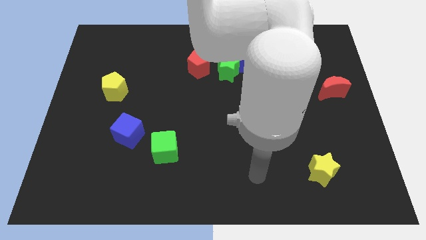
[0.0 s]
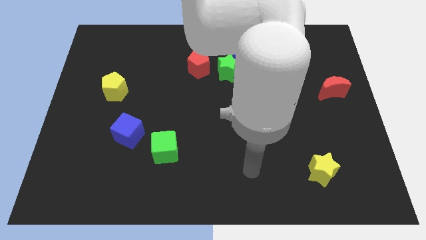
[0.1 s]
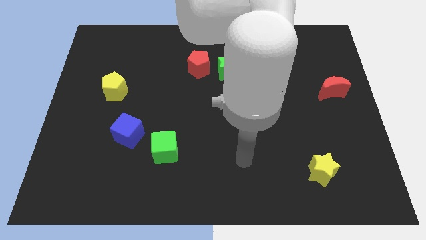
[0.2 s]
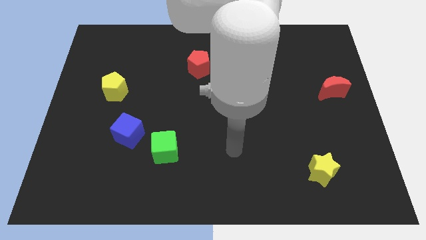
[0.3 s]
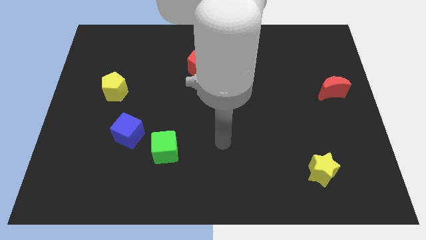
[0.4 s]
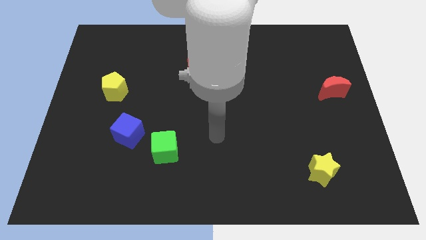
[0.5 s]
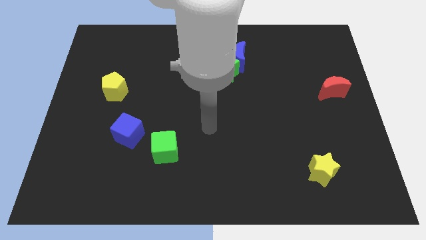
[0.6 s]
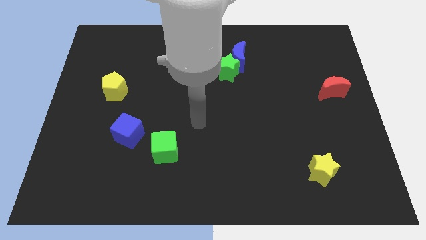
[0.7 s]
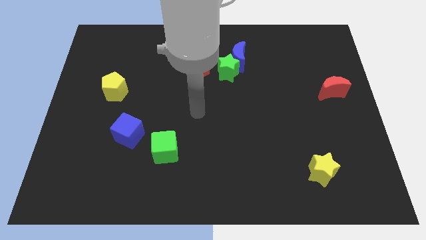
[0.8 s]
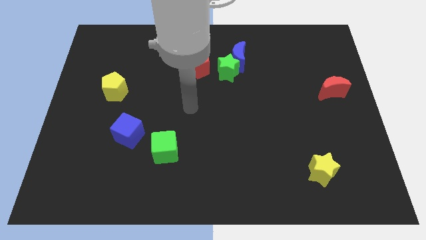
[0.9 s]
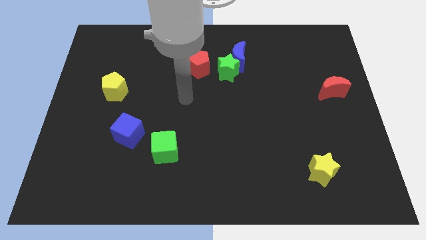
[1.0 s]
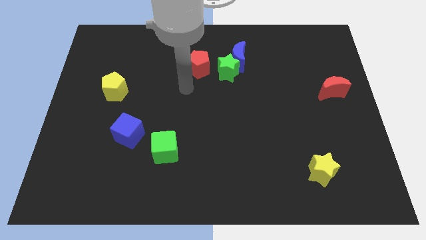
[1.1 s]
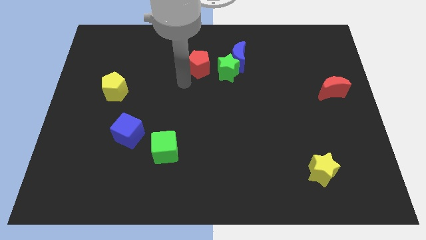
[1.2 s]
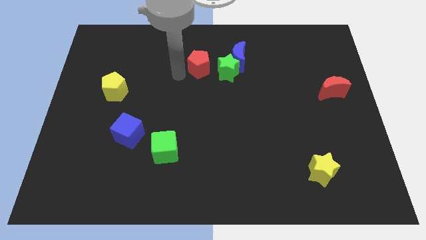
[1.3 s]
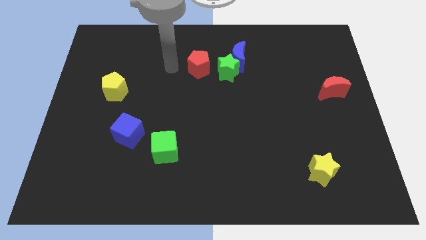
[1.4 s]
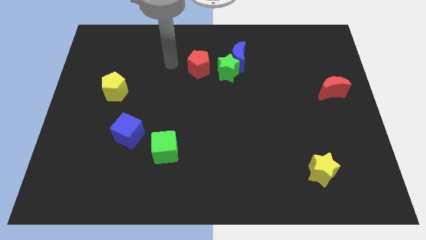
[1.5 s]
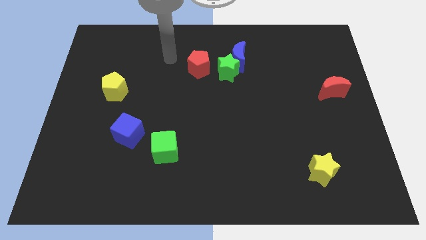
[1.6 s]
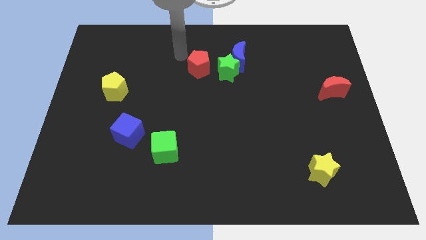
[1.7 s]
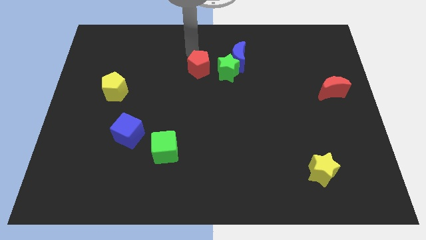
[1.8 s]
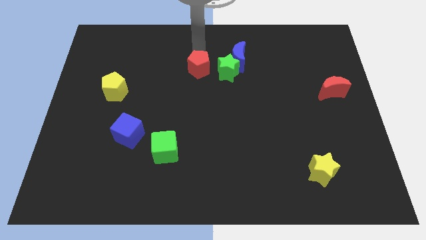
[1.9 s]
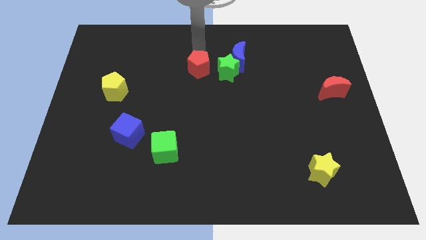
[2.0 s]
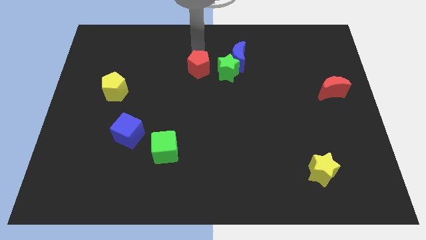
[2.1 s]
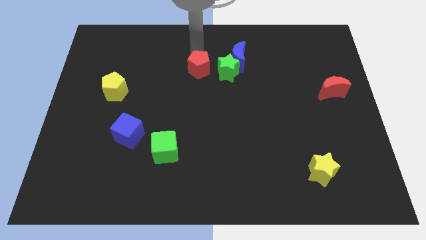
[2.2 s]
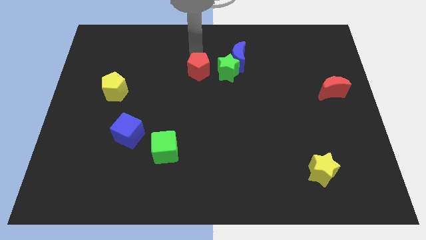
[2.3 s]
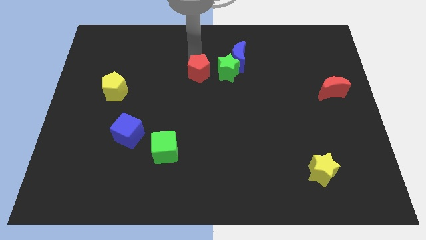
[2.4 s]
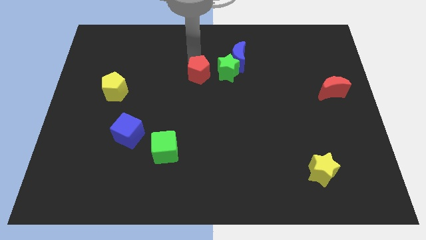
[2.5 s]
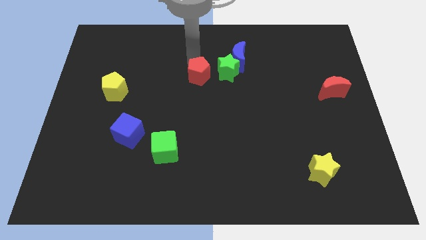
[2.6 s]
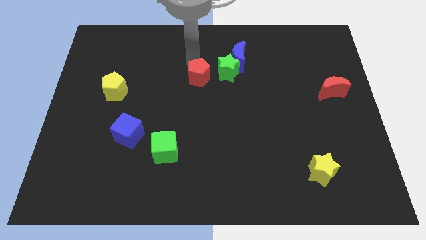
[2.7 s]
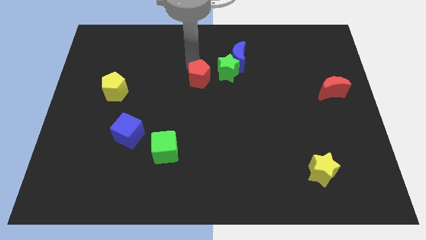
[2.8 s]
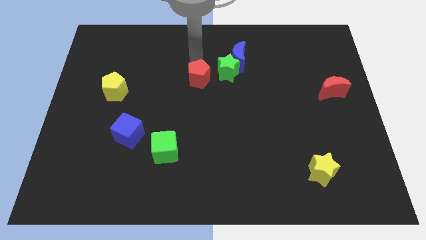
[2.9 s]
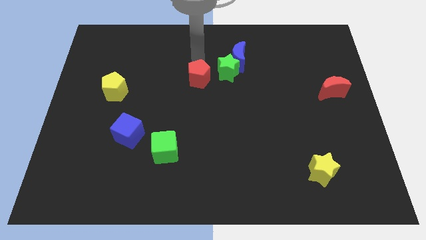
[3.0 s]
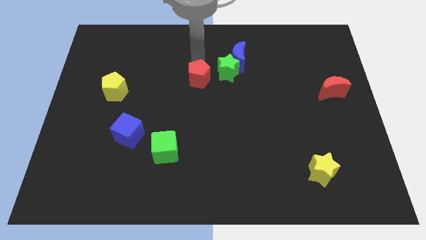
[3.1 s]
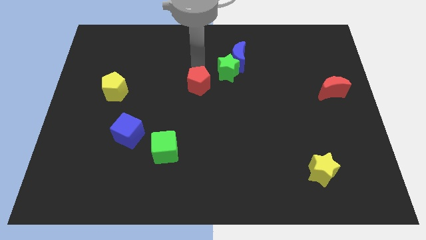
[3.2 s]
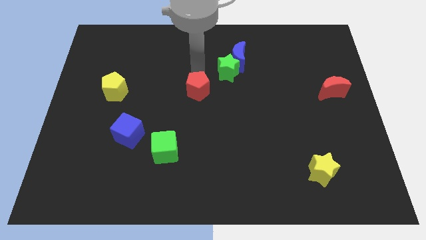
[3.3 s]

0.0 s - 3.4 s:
move the red pentagon a little bit down

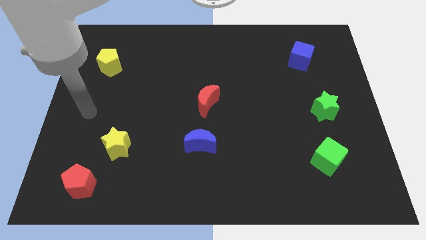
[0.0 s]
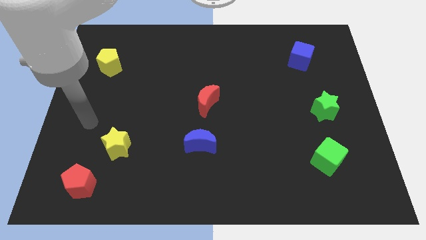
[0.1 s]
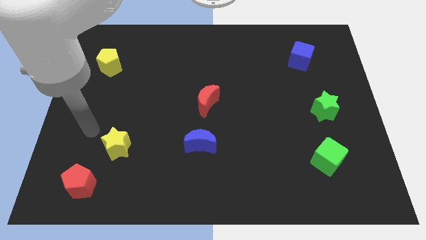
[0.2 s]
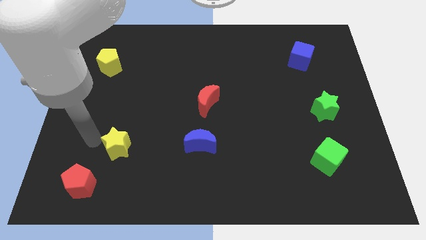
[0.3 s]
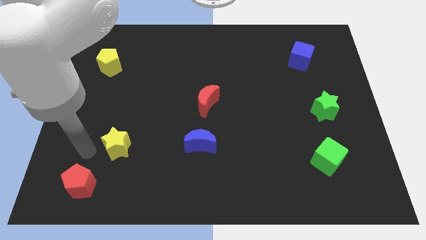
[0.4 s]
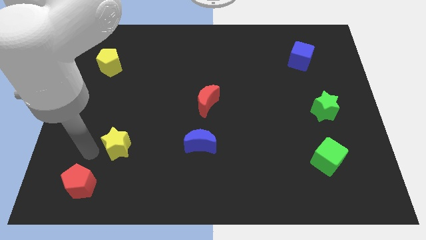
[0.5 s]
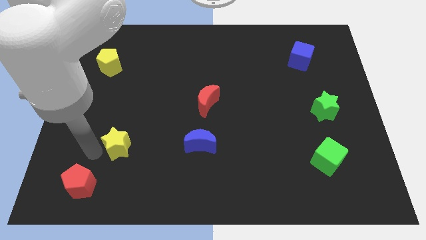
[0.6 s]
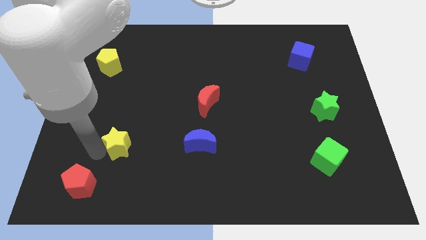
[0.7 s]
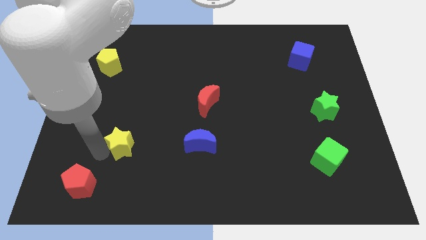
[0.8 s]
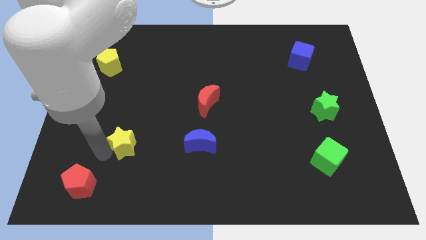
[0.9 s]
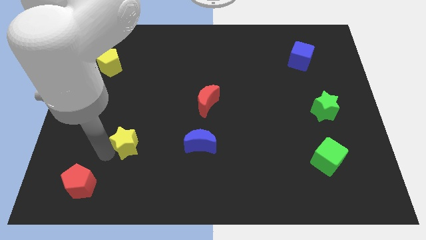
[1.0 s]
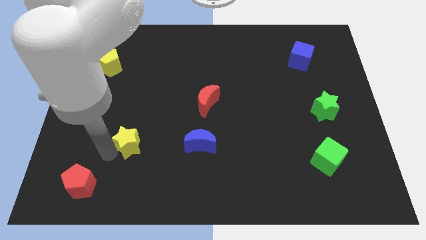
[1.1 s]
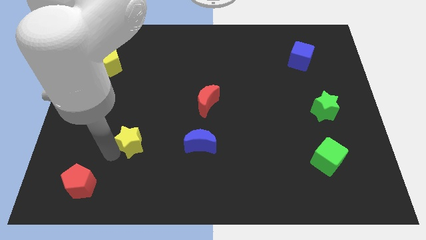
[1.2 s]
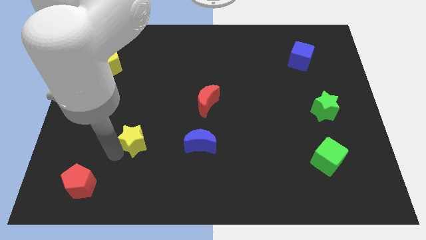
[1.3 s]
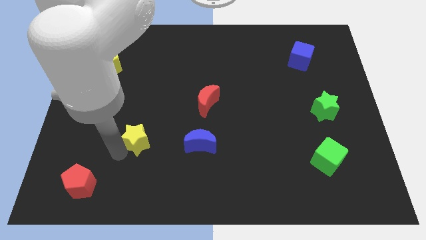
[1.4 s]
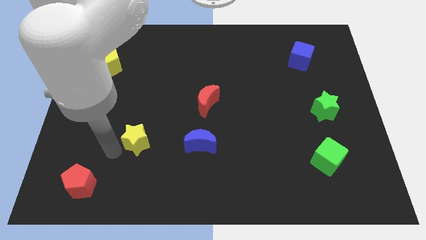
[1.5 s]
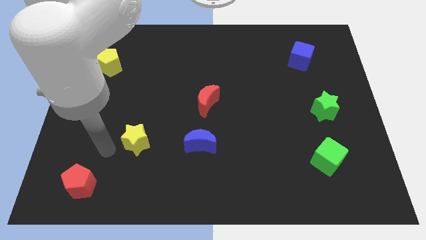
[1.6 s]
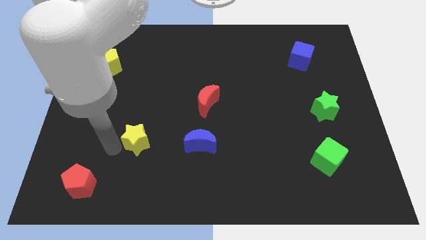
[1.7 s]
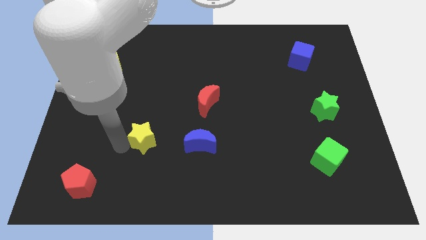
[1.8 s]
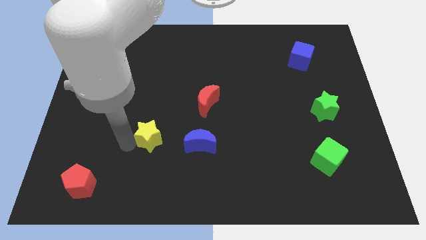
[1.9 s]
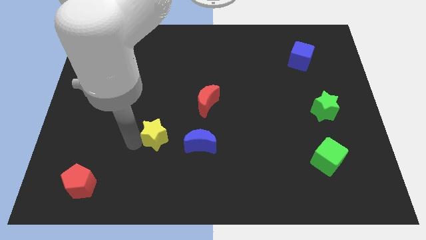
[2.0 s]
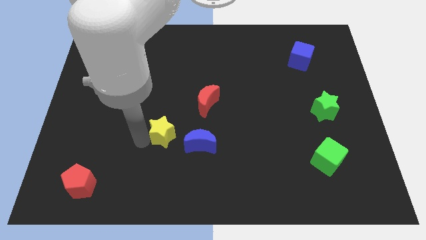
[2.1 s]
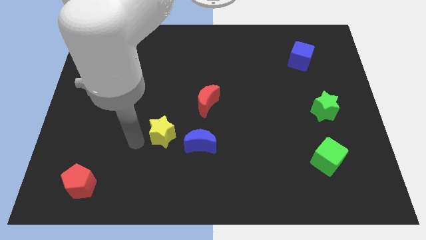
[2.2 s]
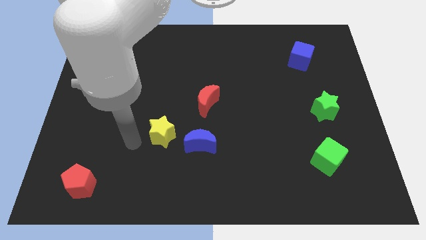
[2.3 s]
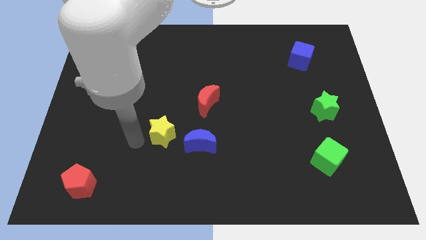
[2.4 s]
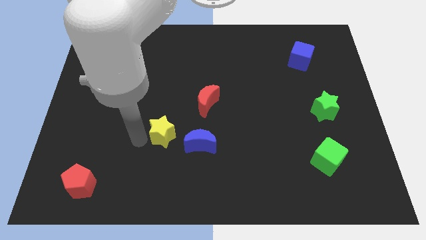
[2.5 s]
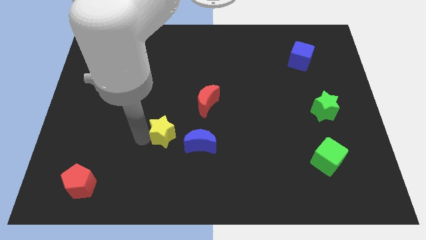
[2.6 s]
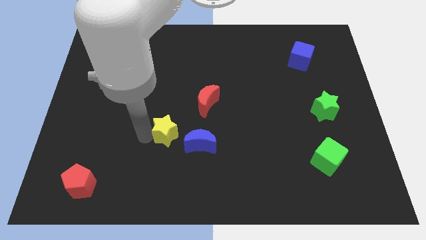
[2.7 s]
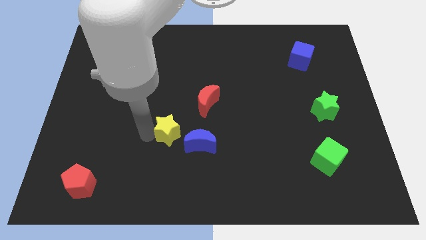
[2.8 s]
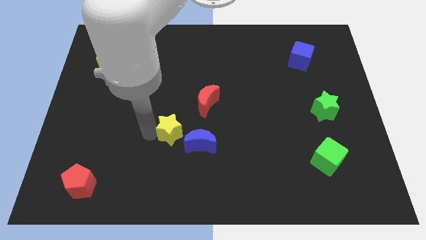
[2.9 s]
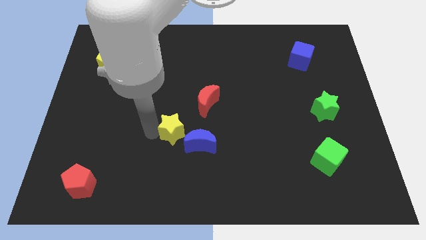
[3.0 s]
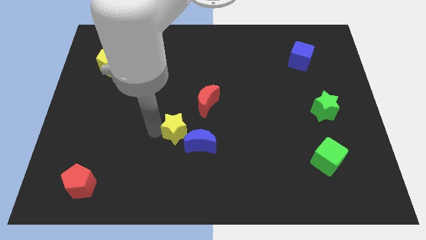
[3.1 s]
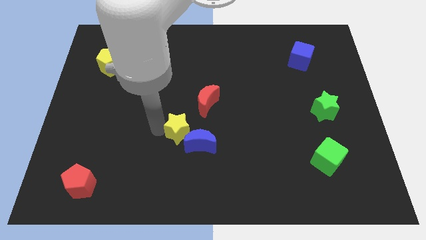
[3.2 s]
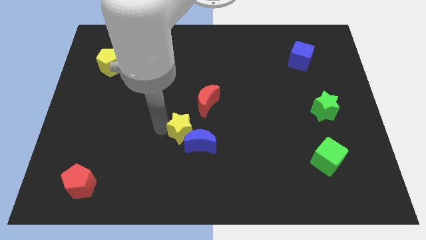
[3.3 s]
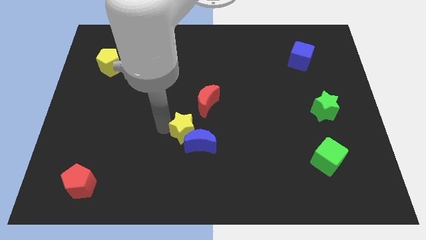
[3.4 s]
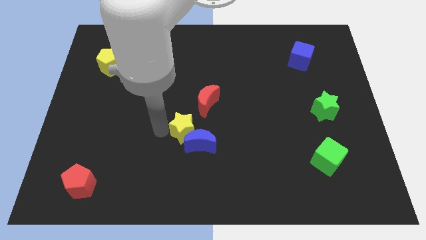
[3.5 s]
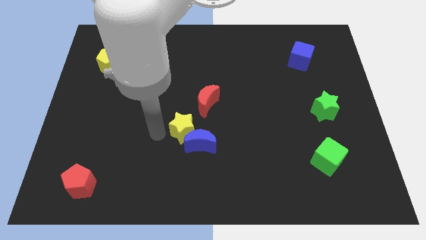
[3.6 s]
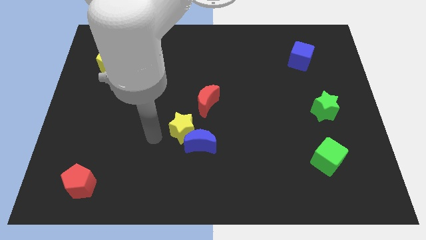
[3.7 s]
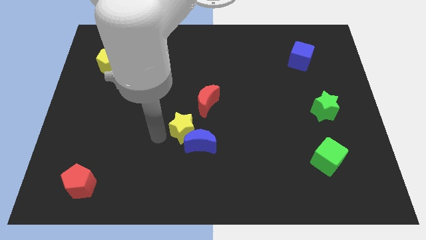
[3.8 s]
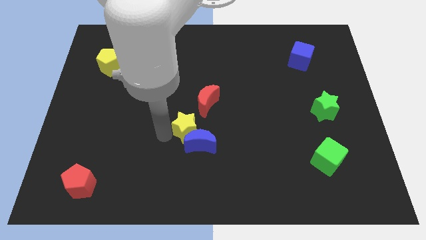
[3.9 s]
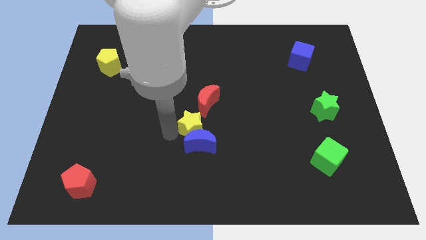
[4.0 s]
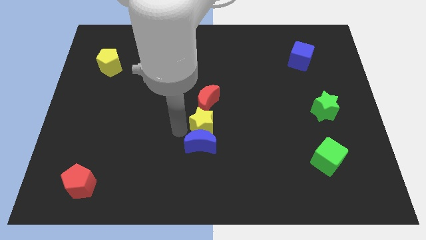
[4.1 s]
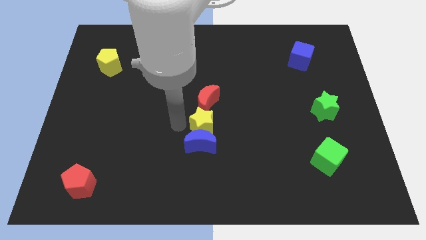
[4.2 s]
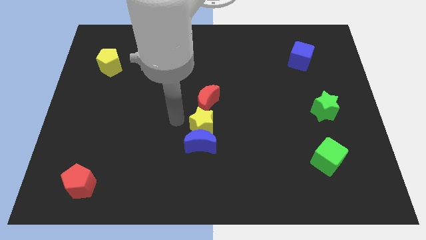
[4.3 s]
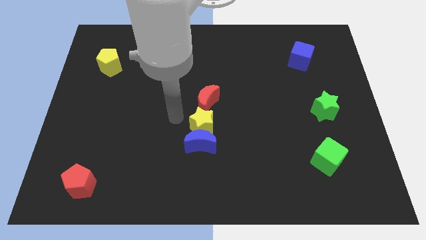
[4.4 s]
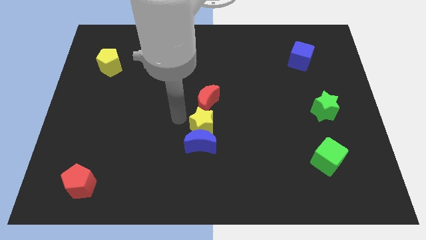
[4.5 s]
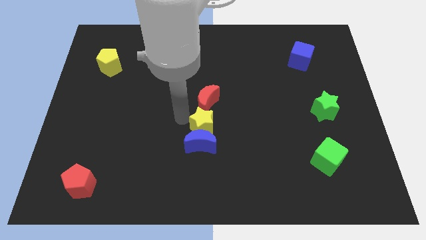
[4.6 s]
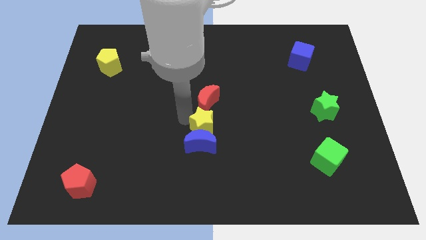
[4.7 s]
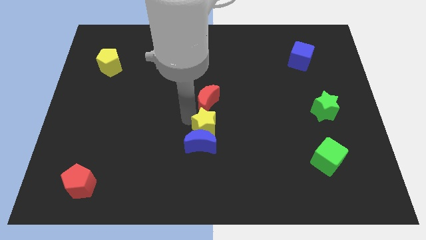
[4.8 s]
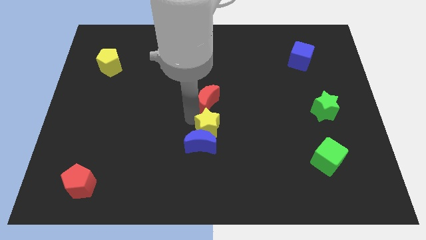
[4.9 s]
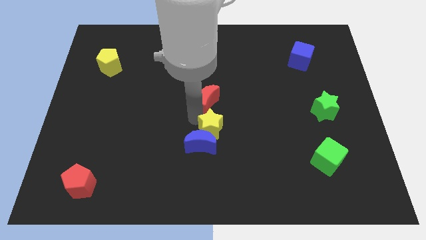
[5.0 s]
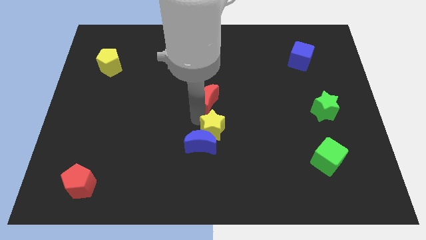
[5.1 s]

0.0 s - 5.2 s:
slide the yellow star right

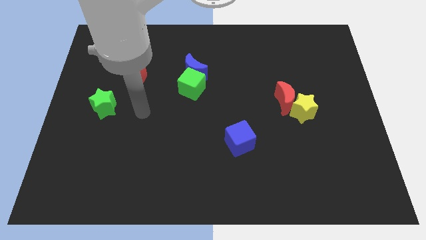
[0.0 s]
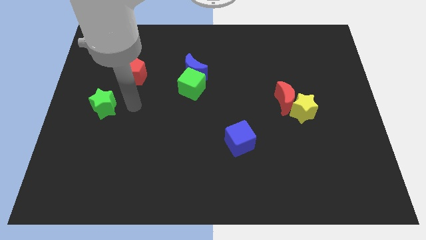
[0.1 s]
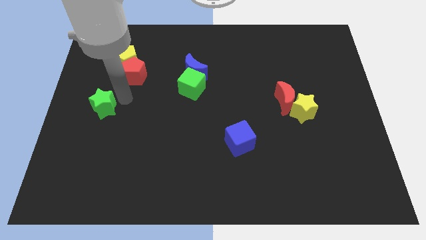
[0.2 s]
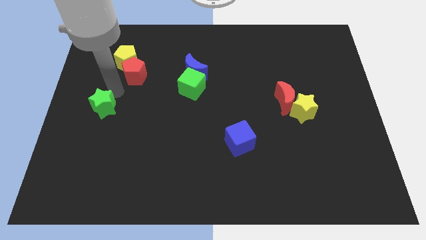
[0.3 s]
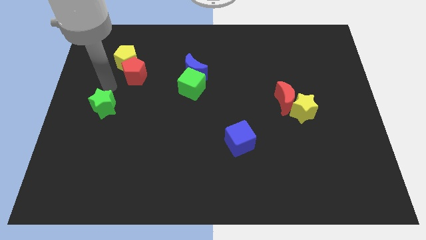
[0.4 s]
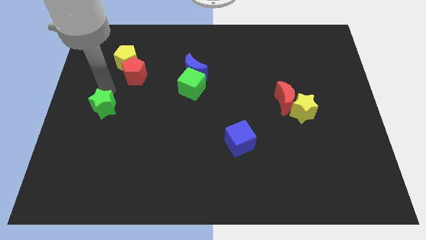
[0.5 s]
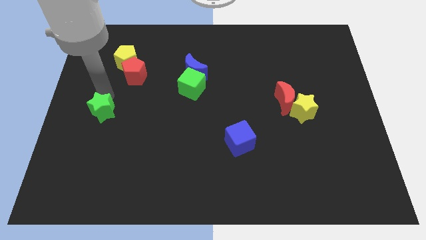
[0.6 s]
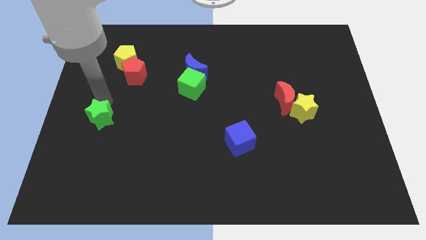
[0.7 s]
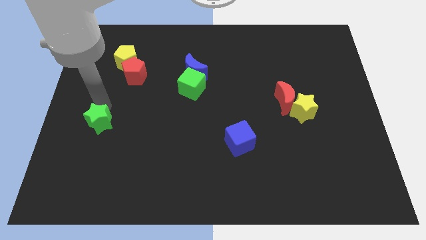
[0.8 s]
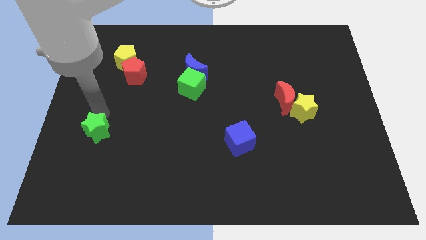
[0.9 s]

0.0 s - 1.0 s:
slide the green star downwards somewhat
